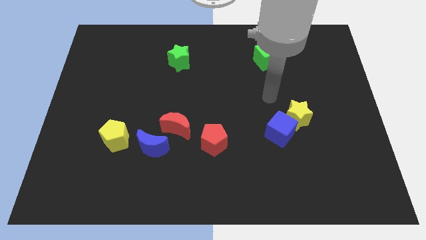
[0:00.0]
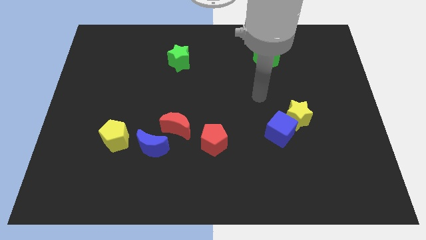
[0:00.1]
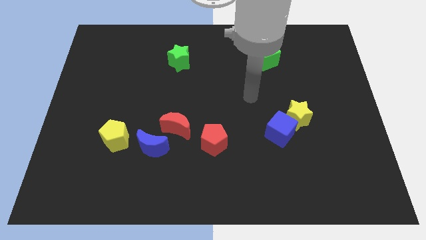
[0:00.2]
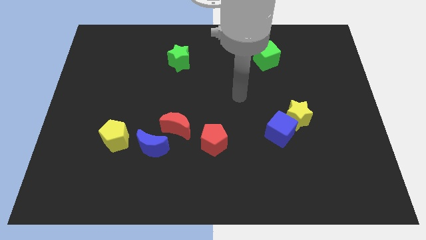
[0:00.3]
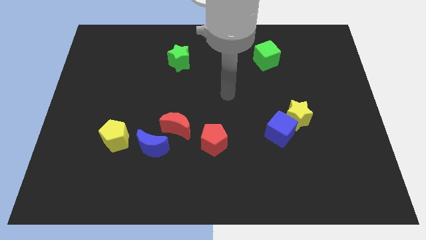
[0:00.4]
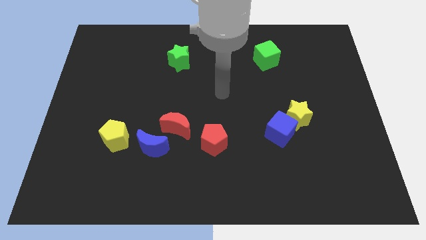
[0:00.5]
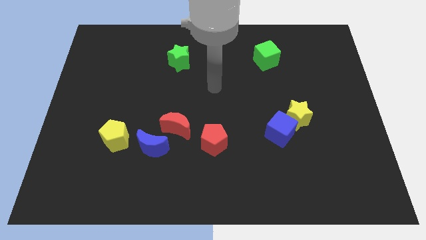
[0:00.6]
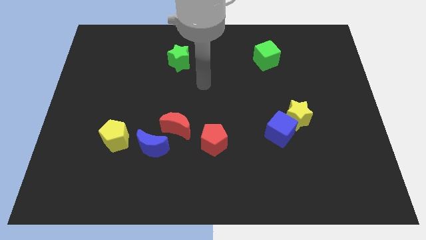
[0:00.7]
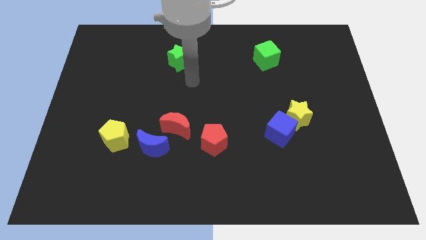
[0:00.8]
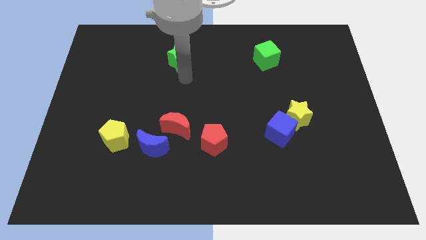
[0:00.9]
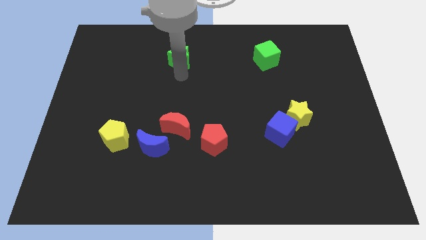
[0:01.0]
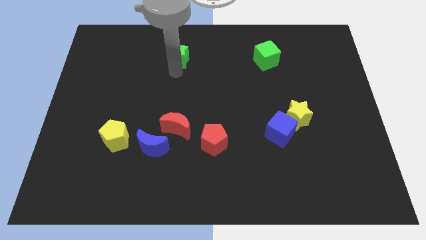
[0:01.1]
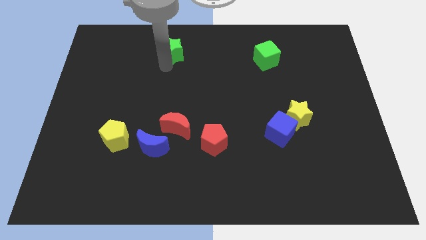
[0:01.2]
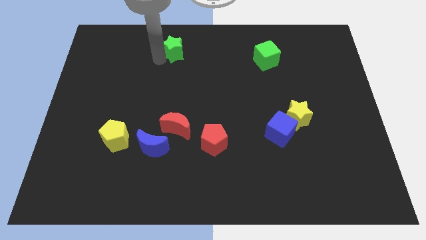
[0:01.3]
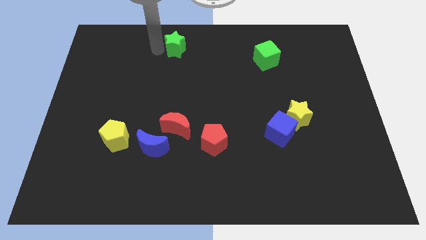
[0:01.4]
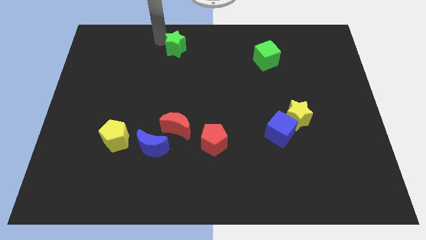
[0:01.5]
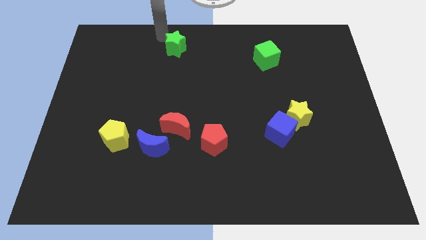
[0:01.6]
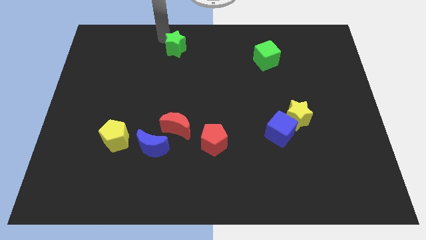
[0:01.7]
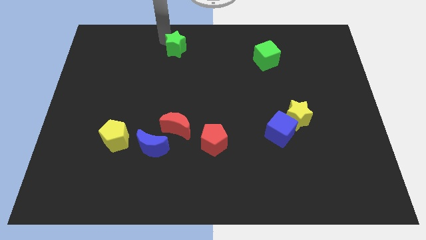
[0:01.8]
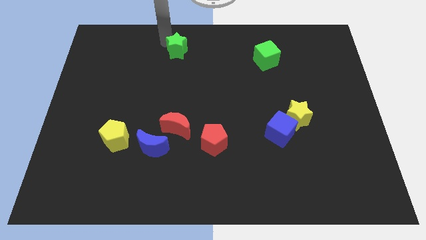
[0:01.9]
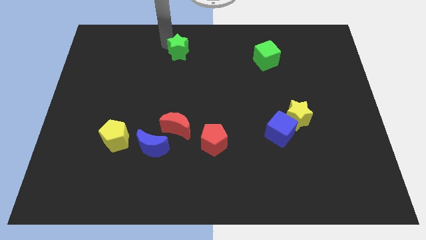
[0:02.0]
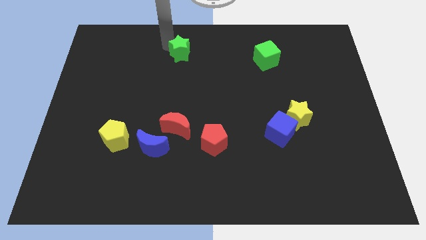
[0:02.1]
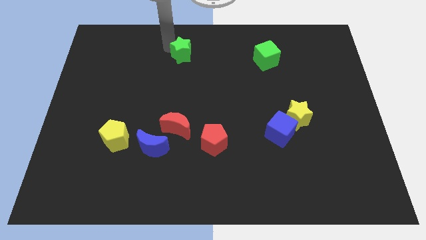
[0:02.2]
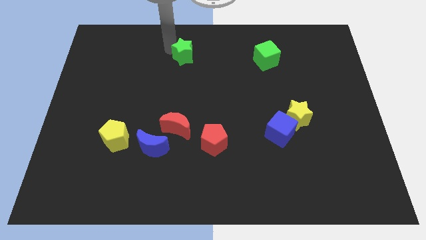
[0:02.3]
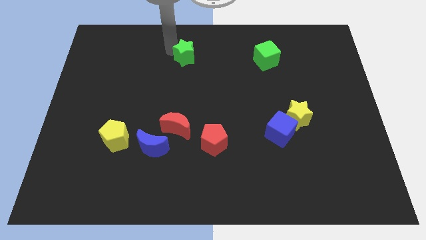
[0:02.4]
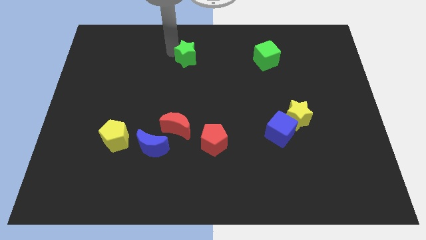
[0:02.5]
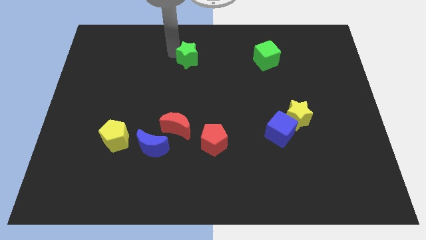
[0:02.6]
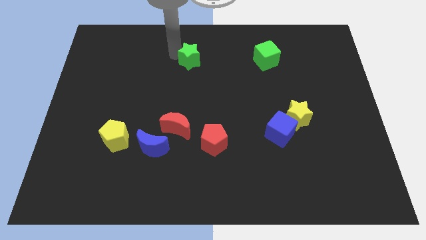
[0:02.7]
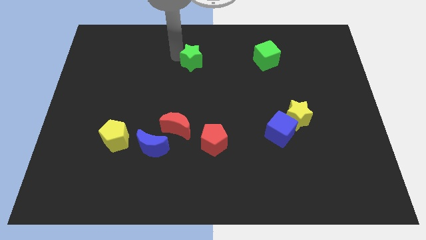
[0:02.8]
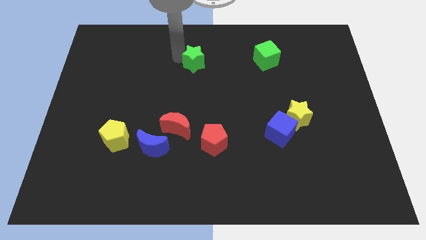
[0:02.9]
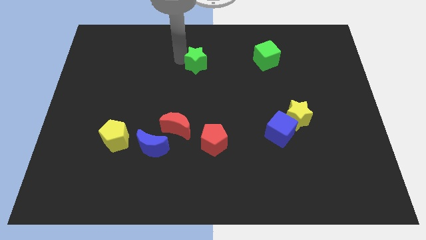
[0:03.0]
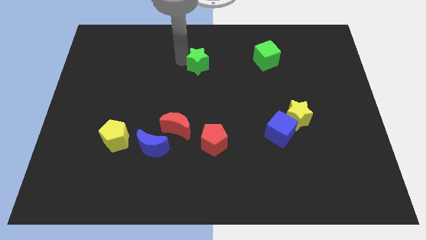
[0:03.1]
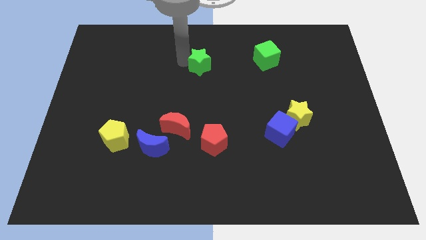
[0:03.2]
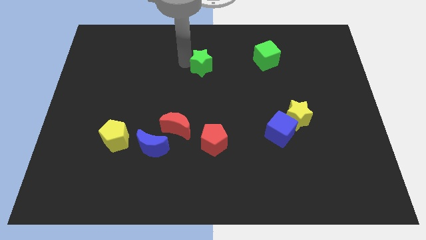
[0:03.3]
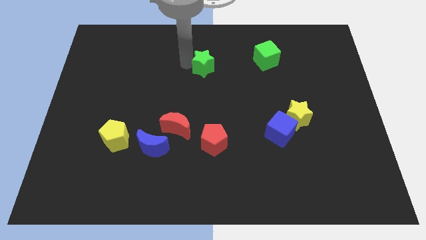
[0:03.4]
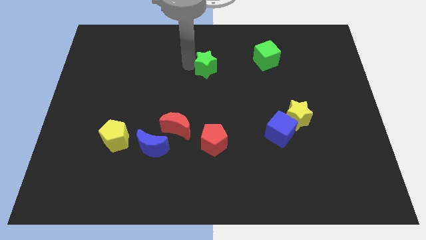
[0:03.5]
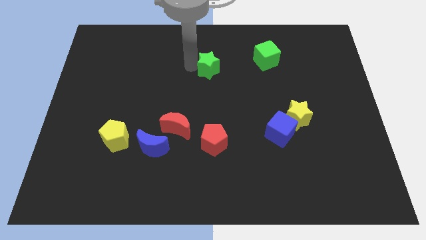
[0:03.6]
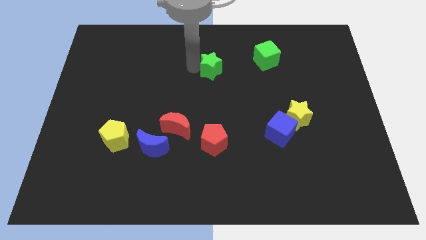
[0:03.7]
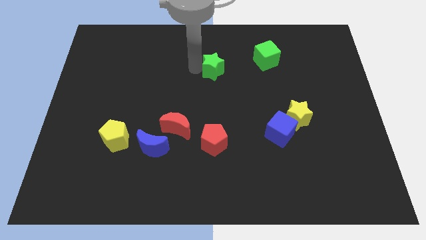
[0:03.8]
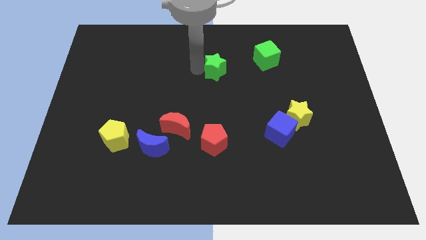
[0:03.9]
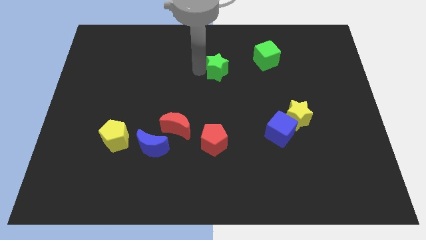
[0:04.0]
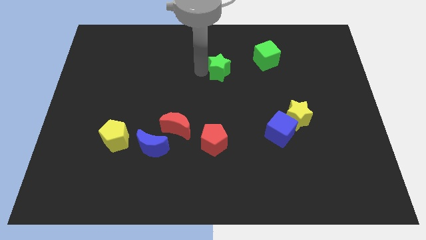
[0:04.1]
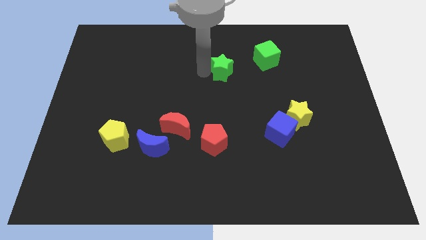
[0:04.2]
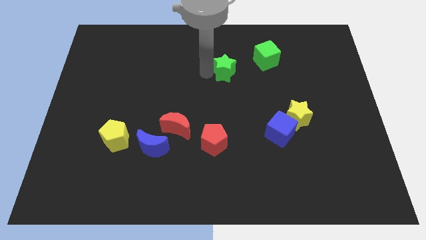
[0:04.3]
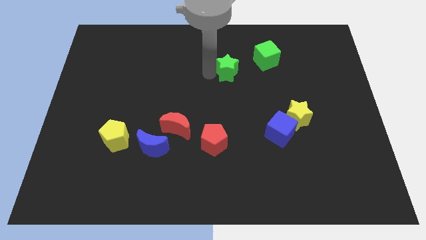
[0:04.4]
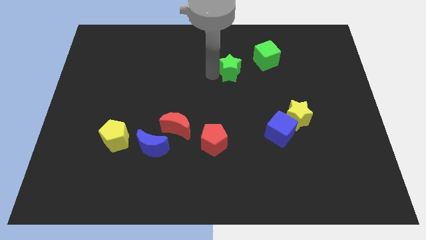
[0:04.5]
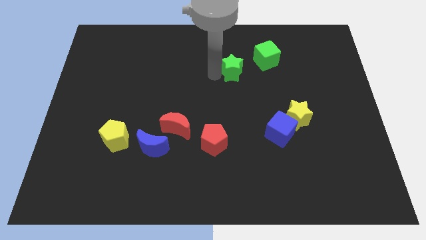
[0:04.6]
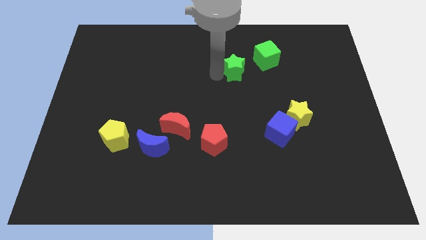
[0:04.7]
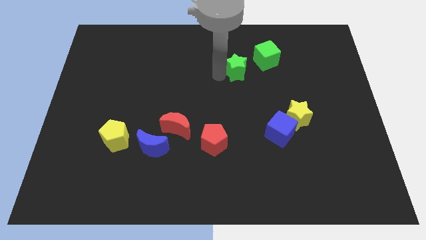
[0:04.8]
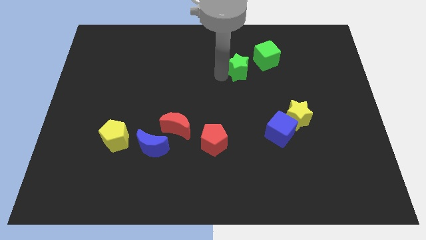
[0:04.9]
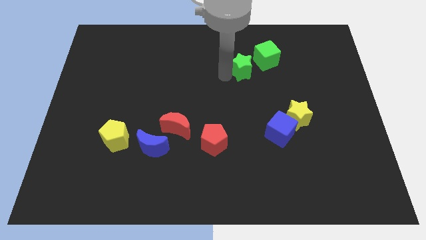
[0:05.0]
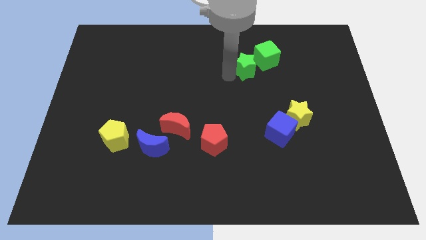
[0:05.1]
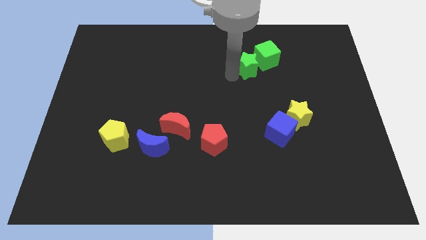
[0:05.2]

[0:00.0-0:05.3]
push the green star to the green cube

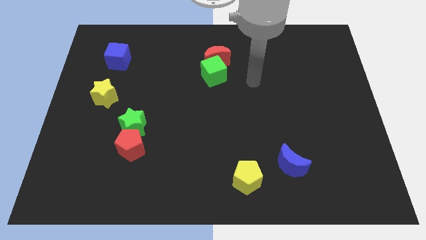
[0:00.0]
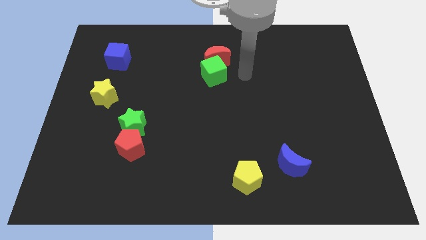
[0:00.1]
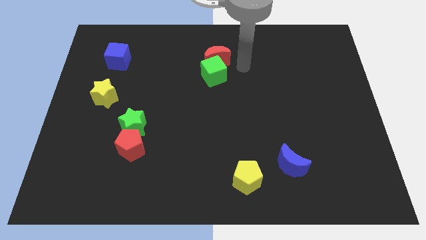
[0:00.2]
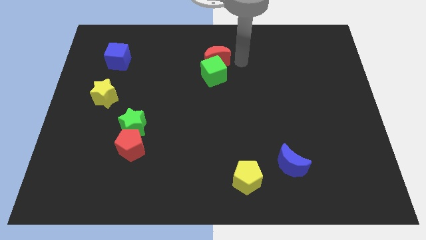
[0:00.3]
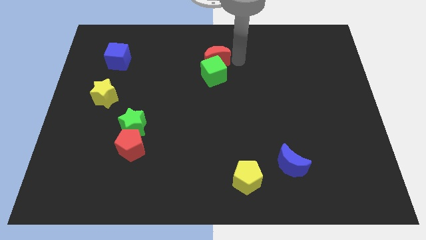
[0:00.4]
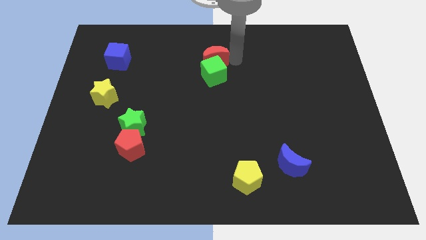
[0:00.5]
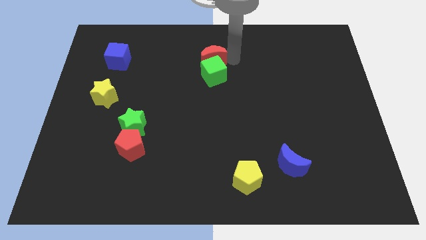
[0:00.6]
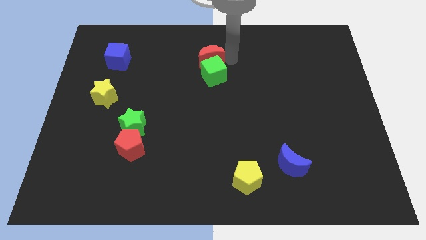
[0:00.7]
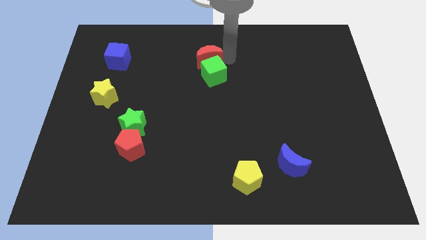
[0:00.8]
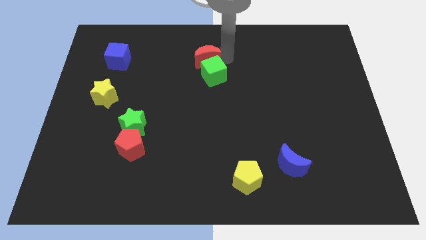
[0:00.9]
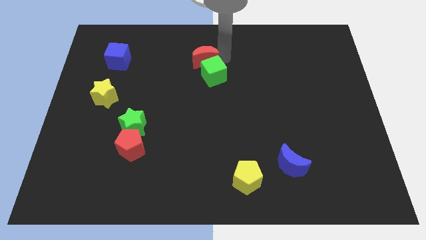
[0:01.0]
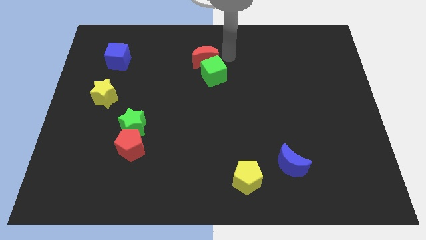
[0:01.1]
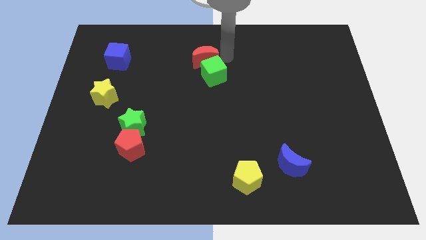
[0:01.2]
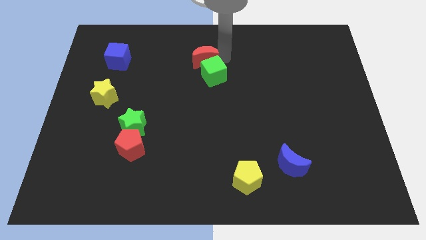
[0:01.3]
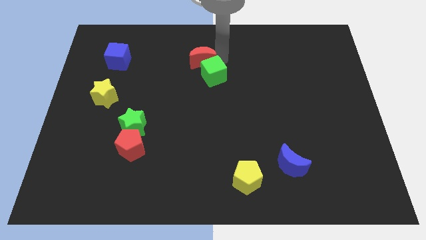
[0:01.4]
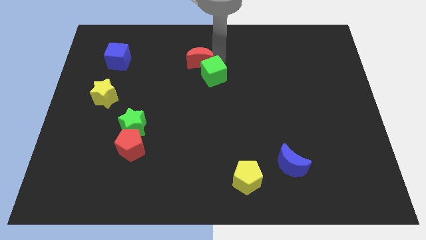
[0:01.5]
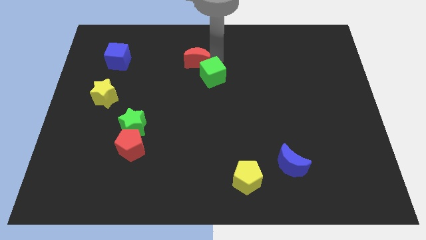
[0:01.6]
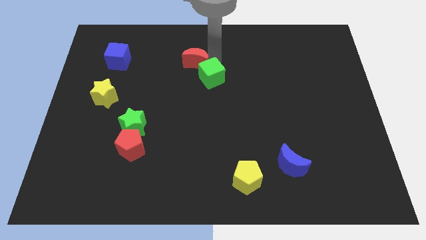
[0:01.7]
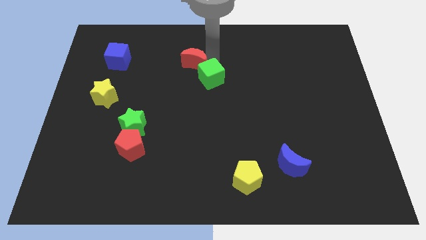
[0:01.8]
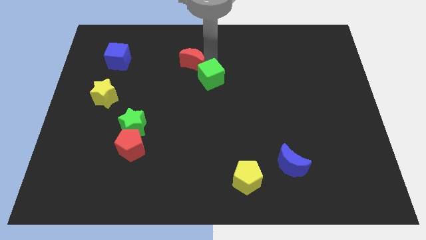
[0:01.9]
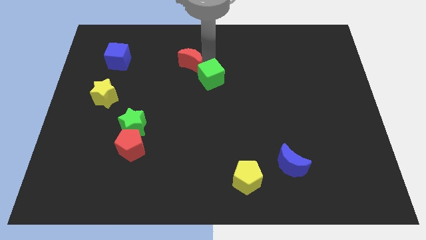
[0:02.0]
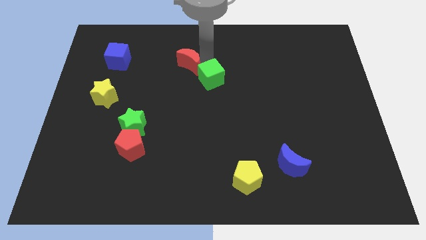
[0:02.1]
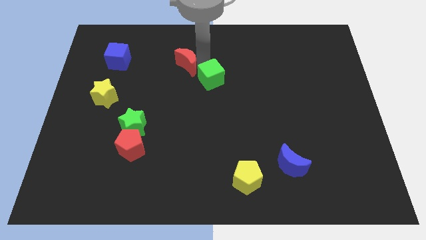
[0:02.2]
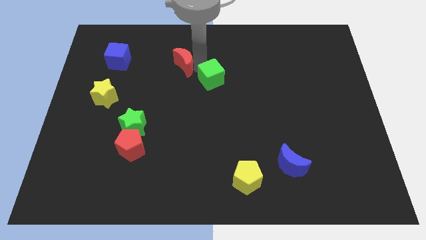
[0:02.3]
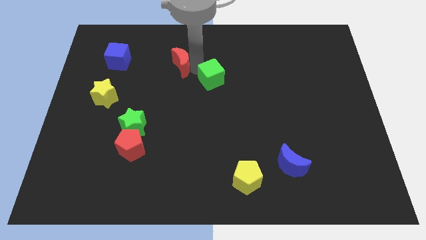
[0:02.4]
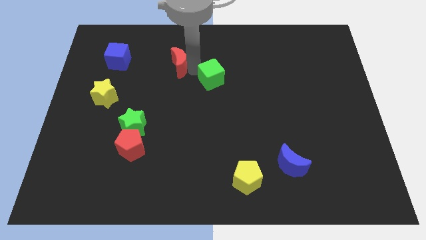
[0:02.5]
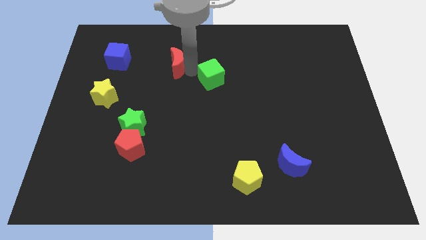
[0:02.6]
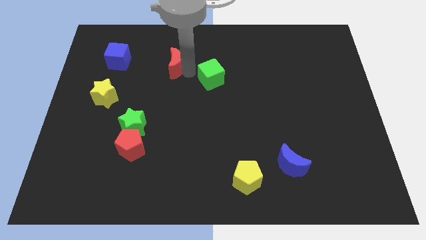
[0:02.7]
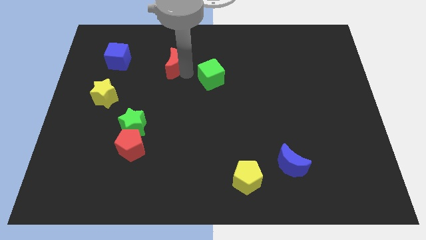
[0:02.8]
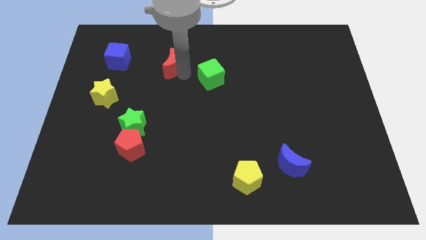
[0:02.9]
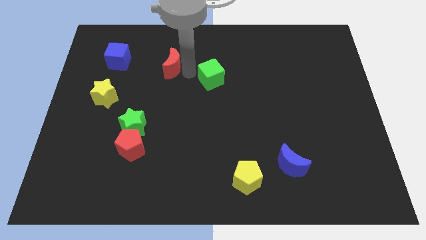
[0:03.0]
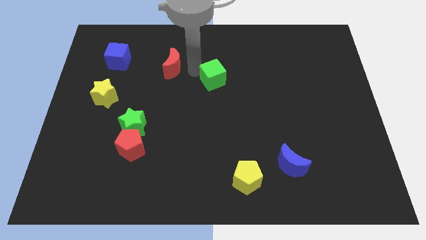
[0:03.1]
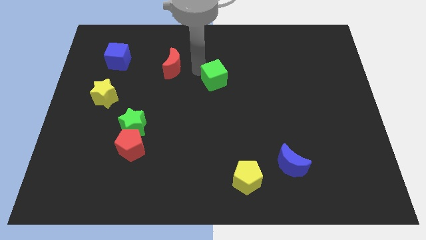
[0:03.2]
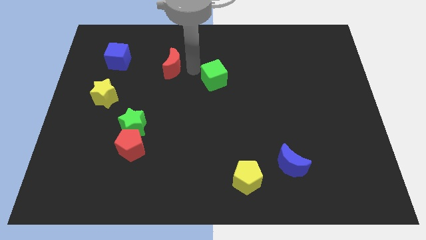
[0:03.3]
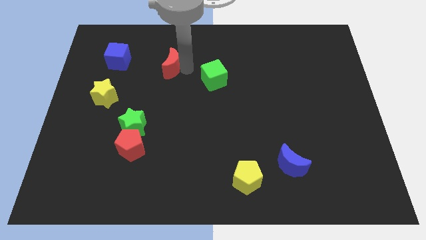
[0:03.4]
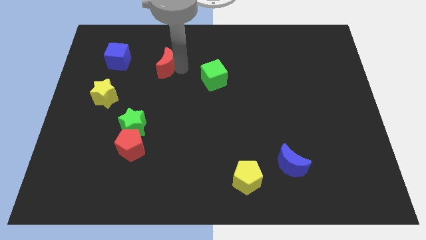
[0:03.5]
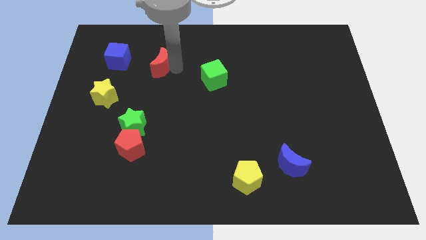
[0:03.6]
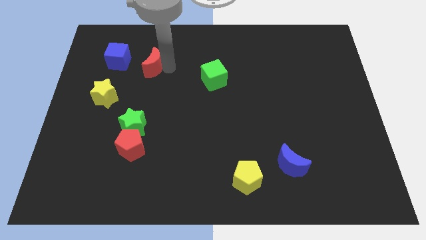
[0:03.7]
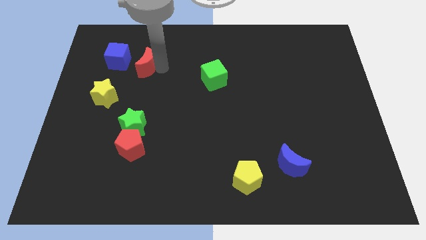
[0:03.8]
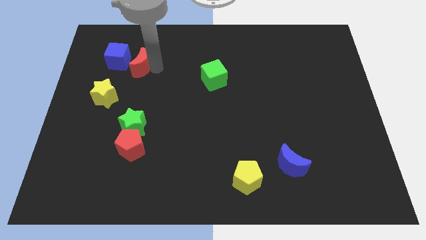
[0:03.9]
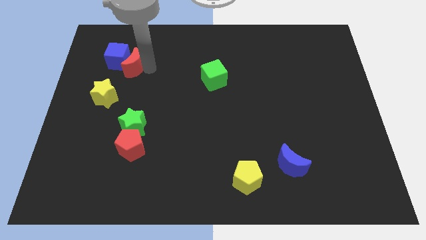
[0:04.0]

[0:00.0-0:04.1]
push the red moon to the blue cube
